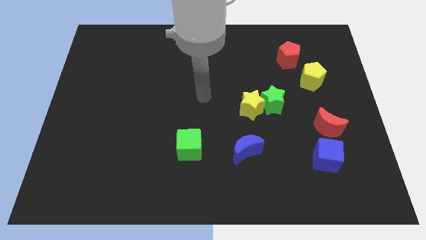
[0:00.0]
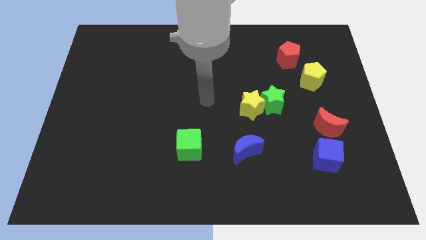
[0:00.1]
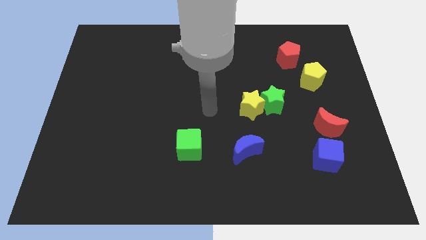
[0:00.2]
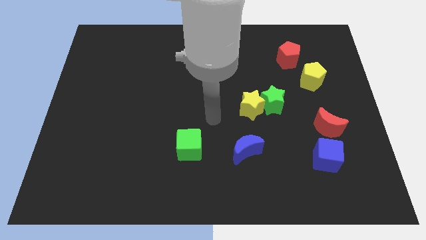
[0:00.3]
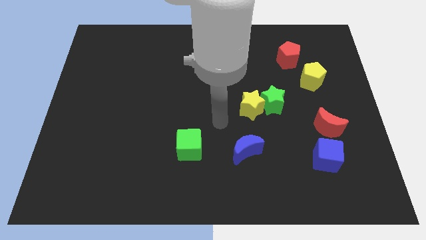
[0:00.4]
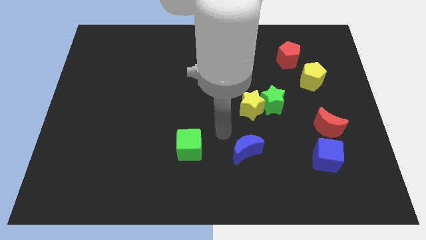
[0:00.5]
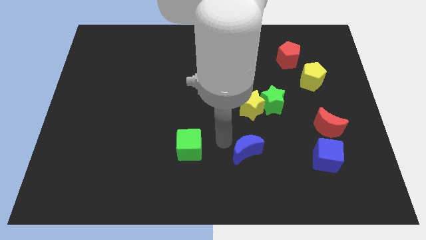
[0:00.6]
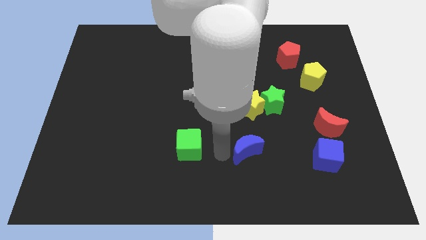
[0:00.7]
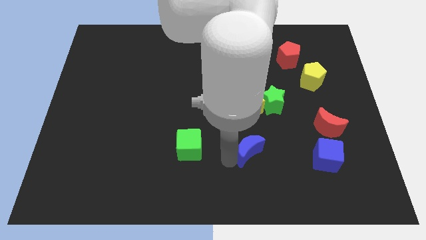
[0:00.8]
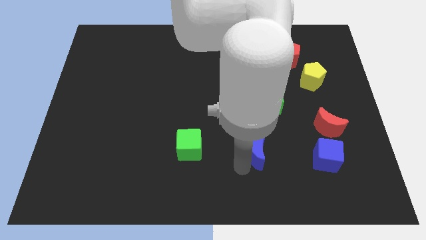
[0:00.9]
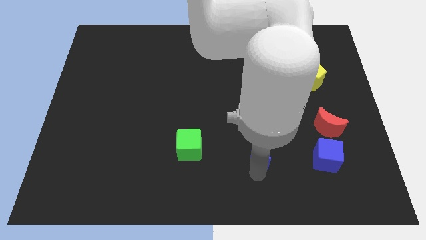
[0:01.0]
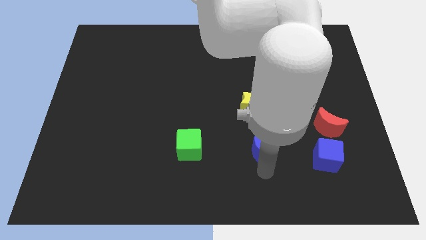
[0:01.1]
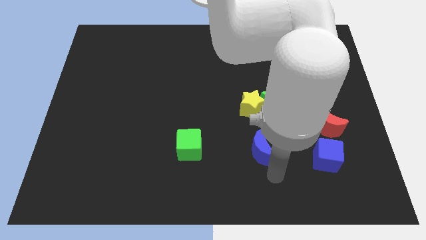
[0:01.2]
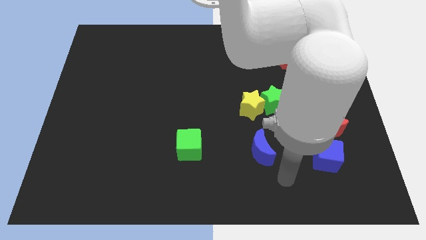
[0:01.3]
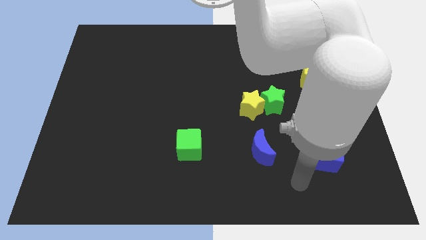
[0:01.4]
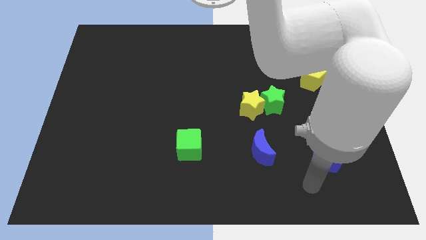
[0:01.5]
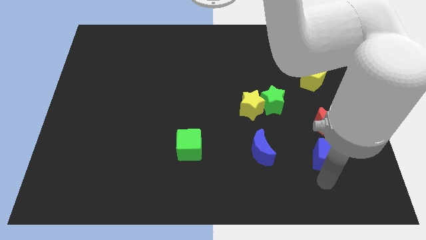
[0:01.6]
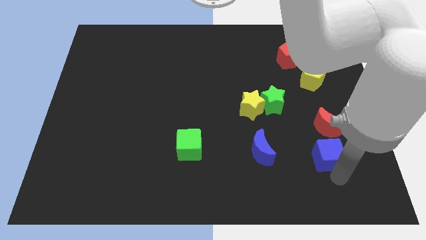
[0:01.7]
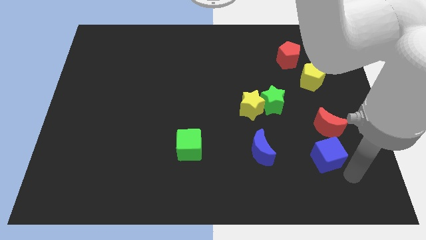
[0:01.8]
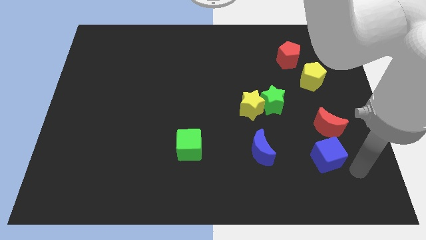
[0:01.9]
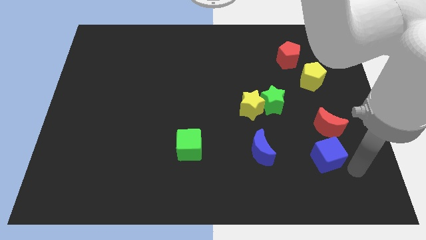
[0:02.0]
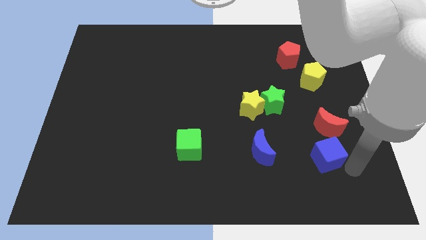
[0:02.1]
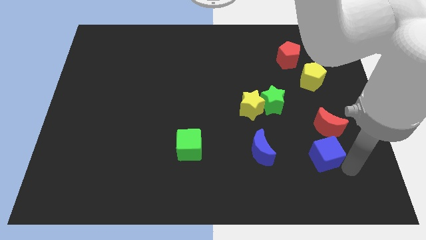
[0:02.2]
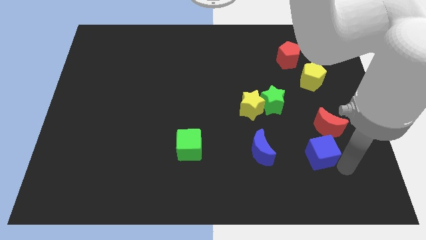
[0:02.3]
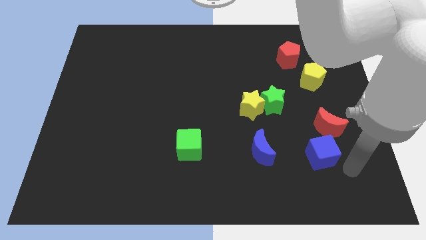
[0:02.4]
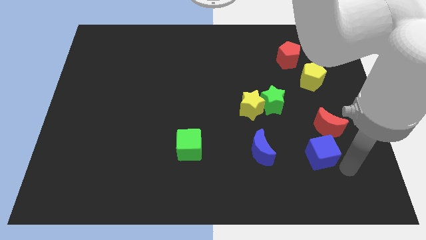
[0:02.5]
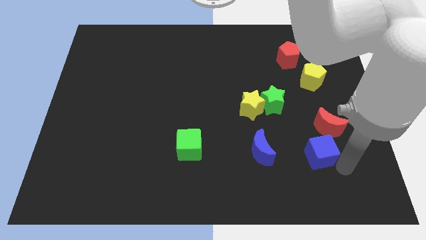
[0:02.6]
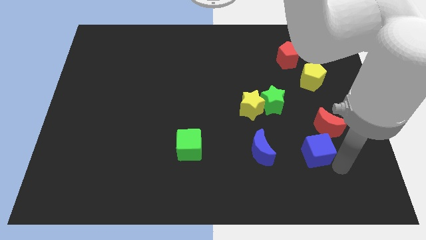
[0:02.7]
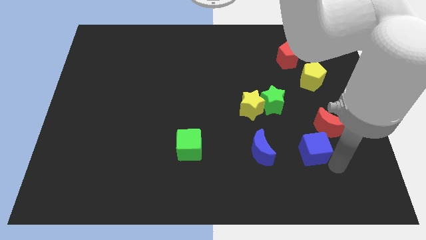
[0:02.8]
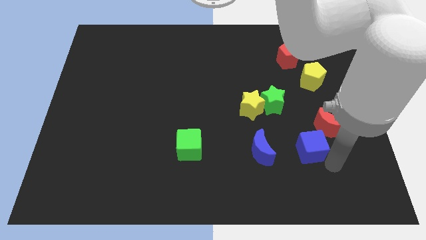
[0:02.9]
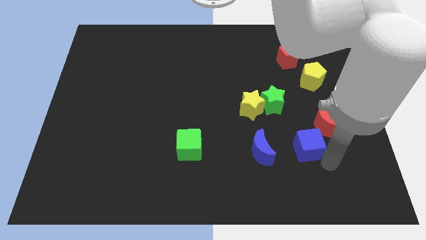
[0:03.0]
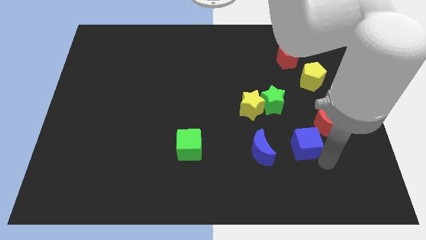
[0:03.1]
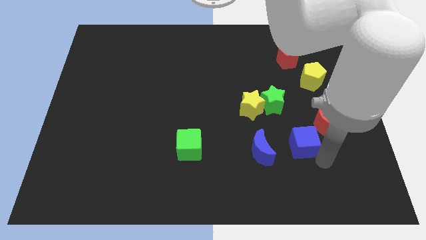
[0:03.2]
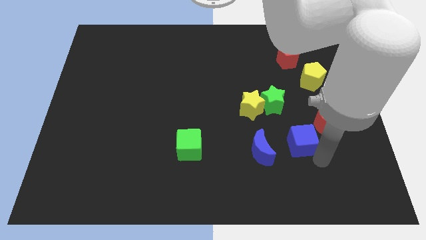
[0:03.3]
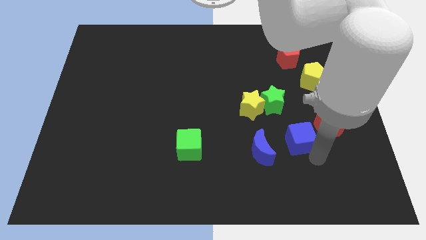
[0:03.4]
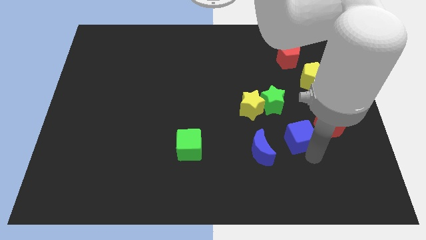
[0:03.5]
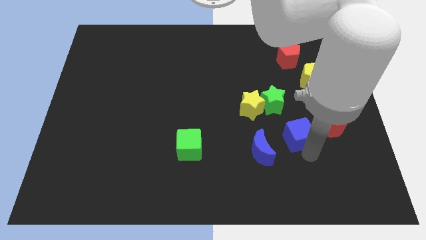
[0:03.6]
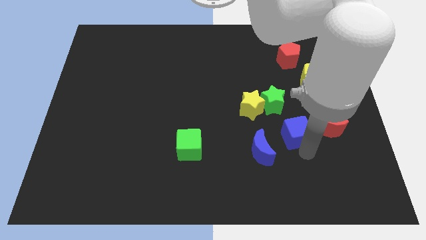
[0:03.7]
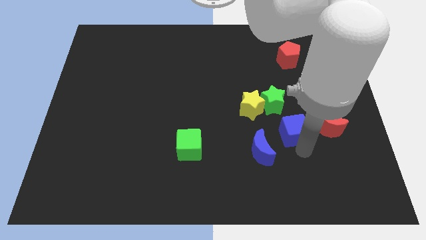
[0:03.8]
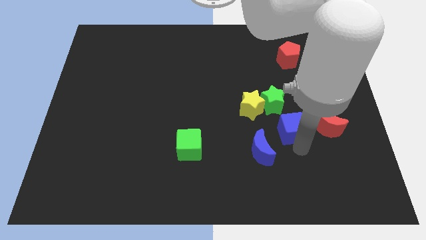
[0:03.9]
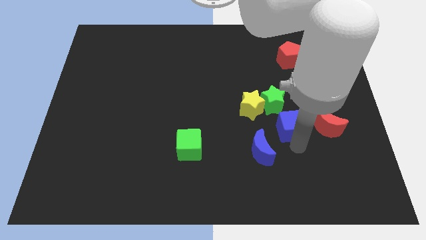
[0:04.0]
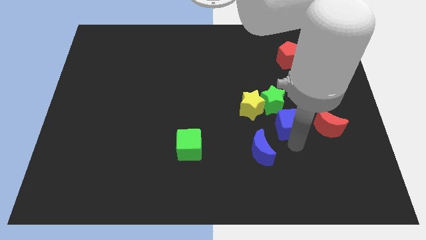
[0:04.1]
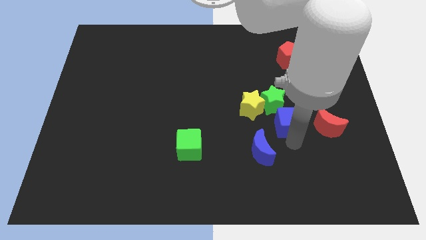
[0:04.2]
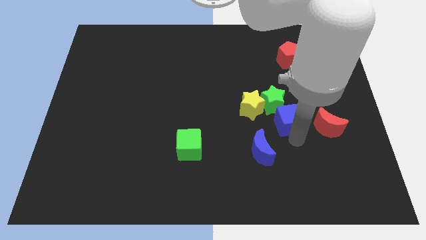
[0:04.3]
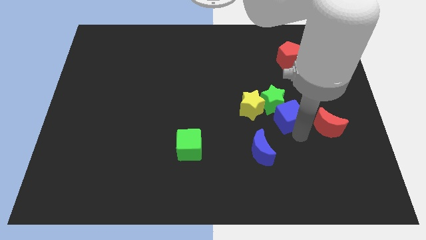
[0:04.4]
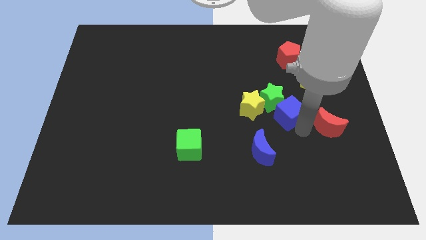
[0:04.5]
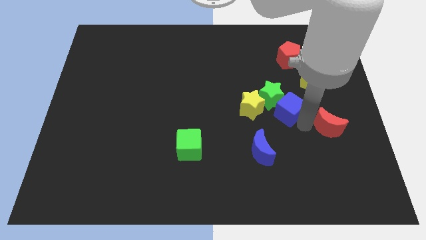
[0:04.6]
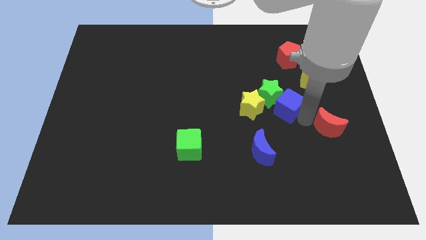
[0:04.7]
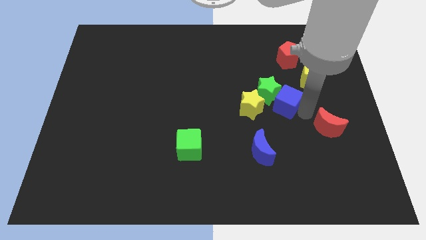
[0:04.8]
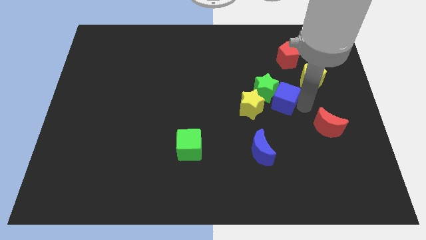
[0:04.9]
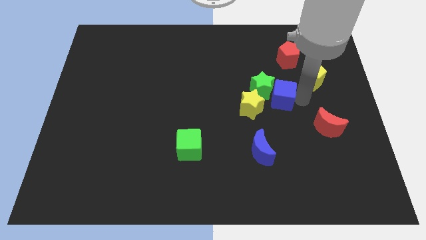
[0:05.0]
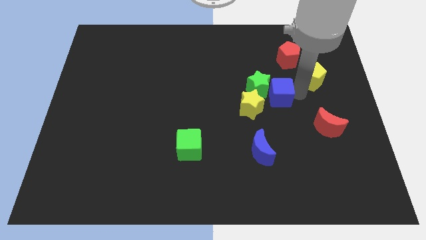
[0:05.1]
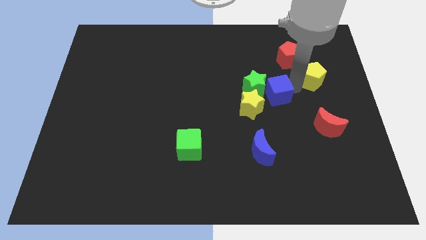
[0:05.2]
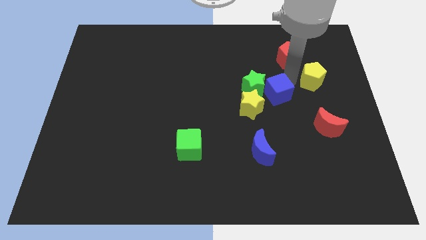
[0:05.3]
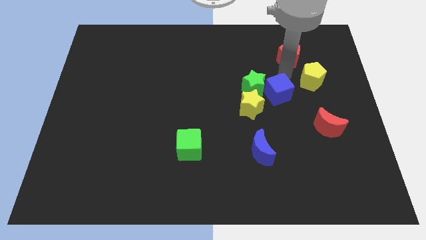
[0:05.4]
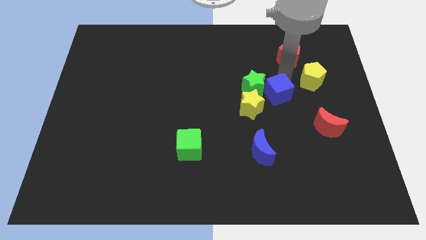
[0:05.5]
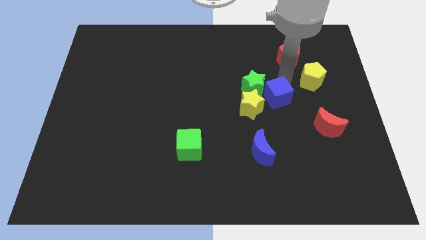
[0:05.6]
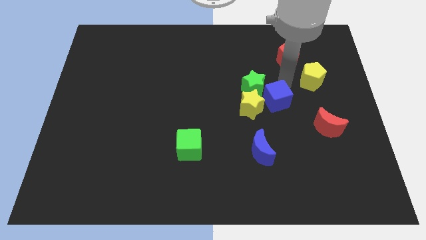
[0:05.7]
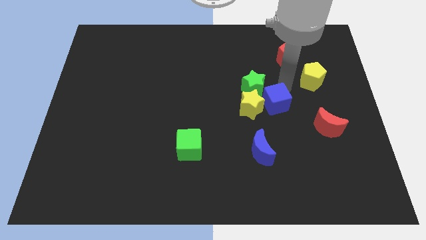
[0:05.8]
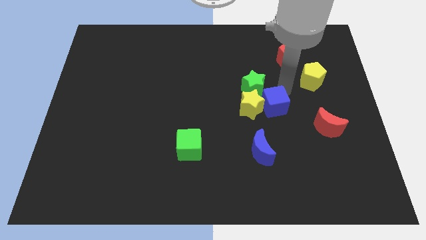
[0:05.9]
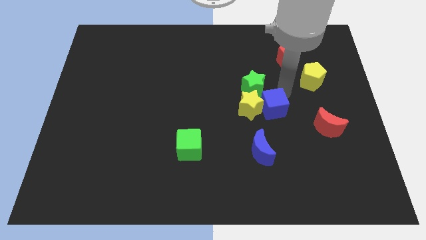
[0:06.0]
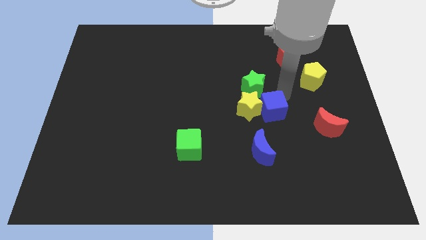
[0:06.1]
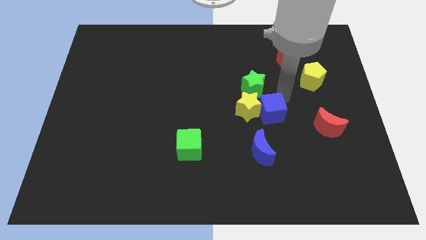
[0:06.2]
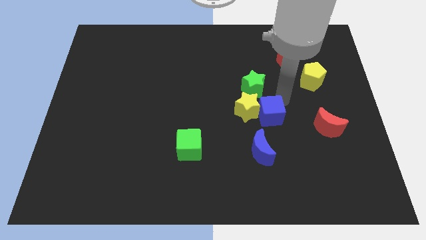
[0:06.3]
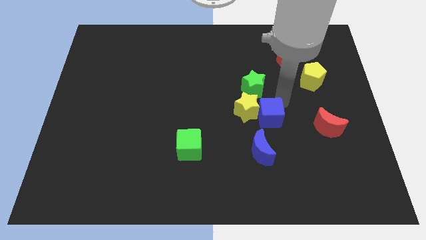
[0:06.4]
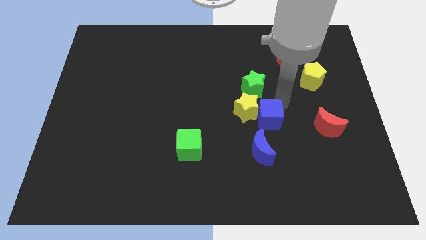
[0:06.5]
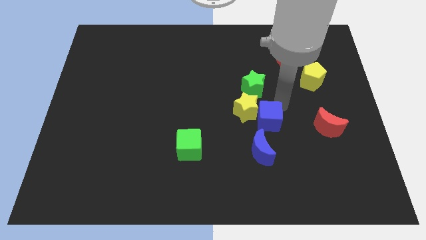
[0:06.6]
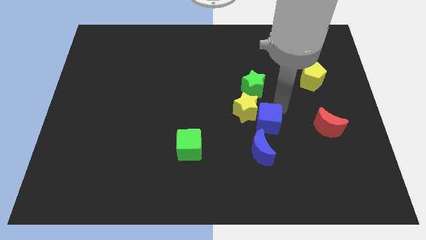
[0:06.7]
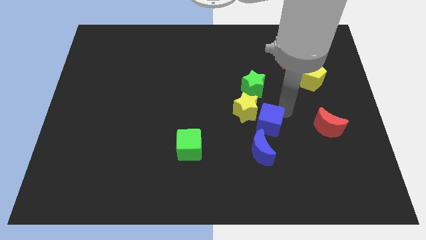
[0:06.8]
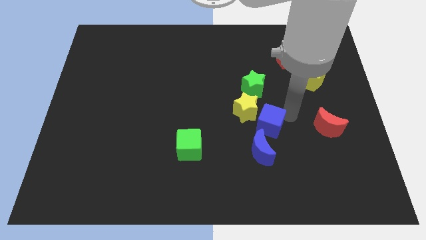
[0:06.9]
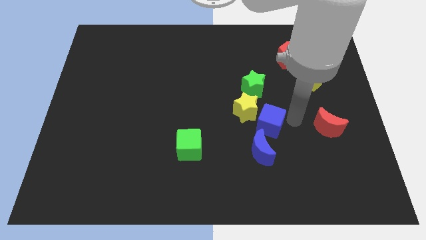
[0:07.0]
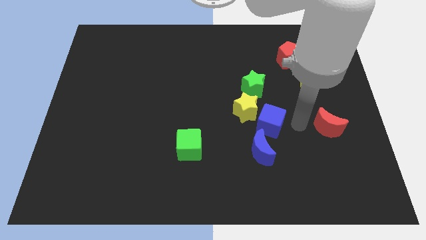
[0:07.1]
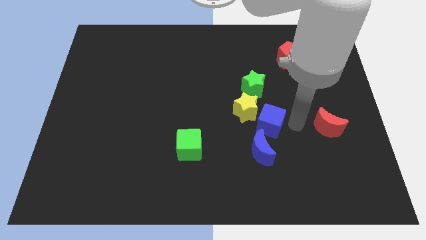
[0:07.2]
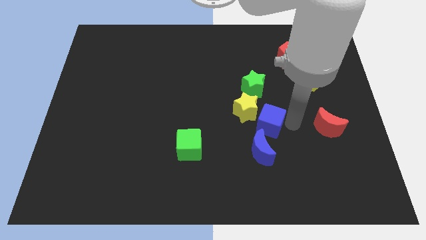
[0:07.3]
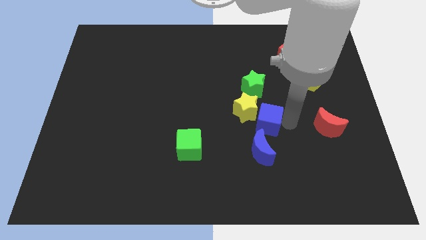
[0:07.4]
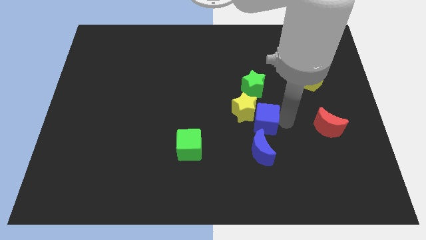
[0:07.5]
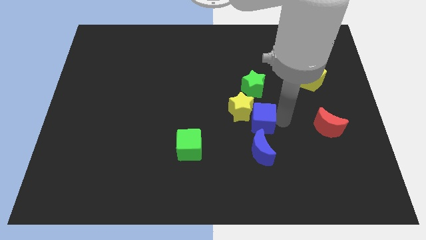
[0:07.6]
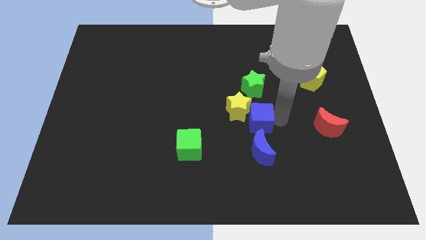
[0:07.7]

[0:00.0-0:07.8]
move the blue cube to the middle of the board
